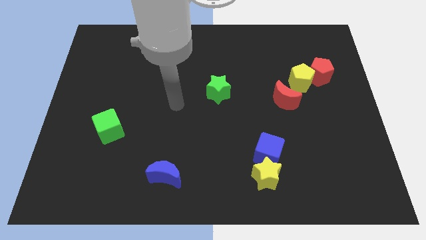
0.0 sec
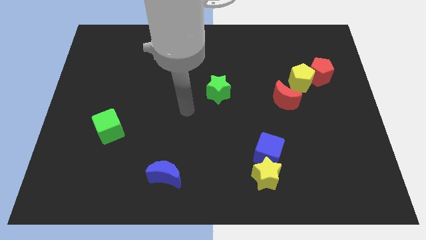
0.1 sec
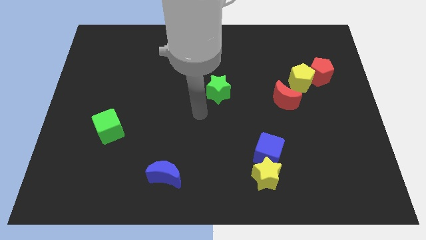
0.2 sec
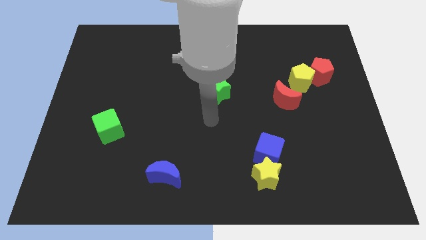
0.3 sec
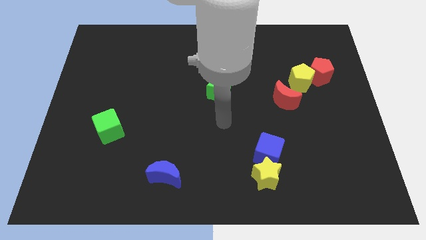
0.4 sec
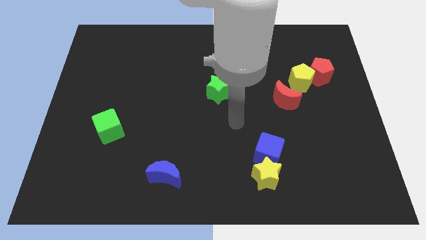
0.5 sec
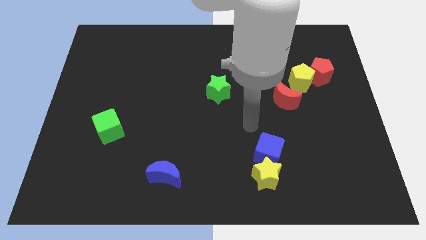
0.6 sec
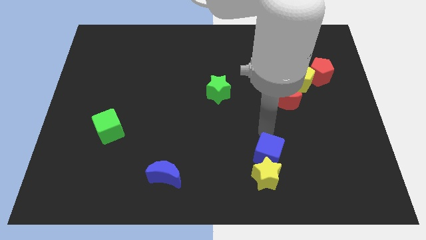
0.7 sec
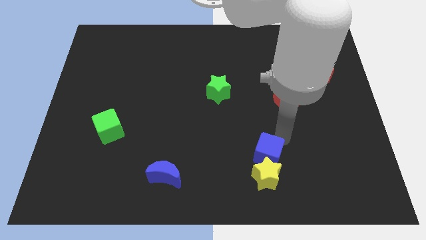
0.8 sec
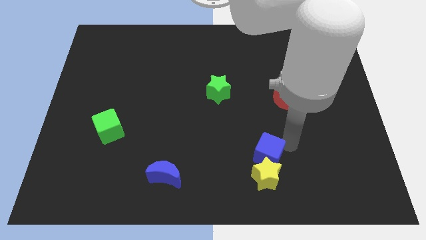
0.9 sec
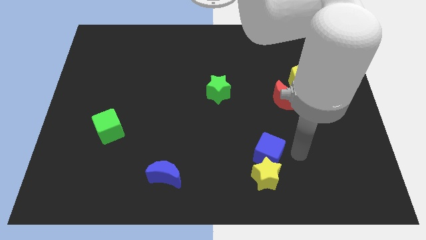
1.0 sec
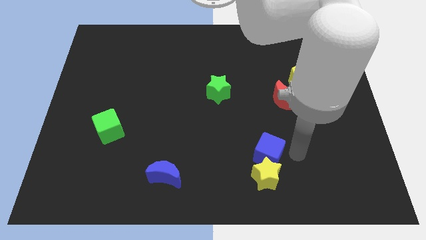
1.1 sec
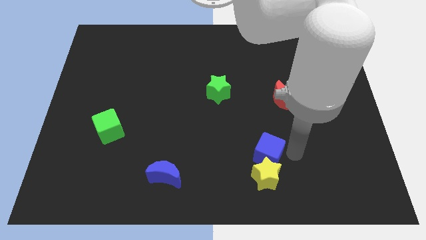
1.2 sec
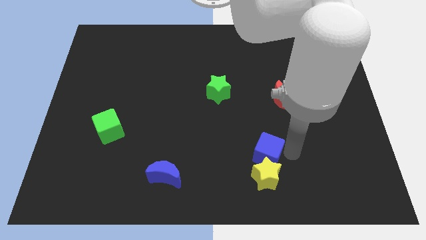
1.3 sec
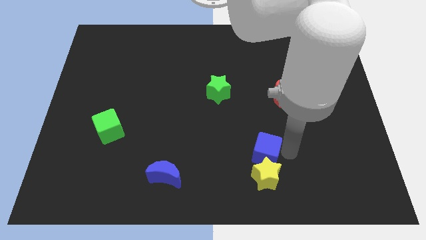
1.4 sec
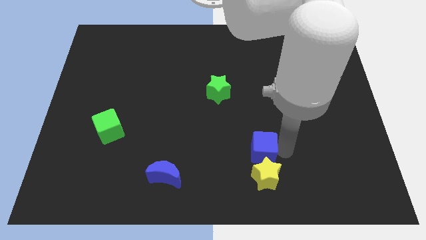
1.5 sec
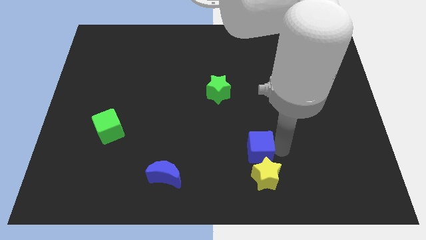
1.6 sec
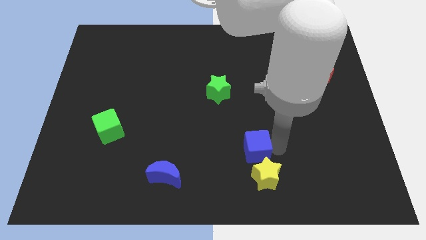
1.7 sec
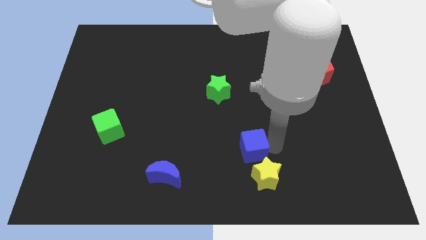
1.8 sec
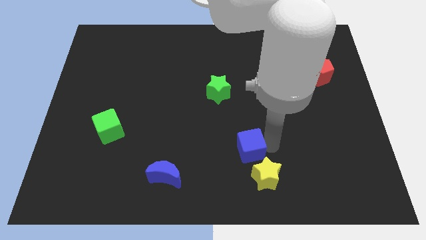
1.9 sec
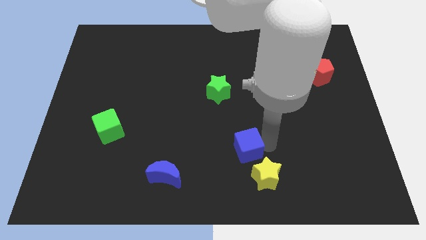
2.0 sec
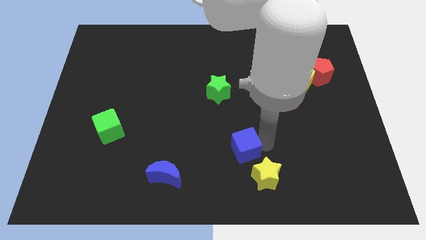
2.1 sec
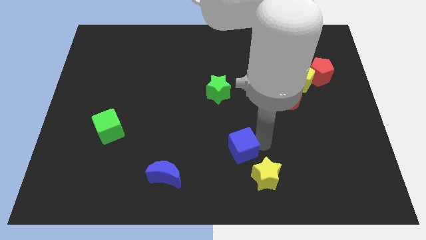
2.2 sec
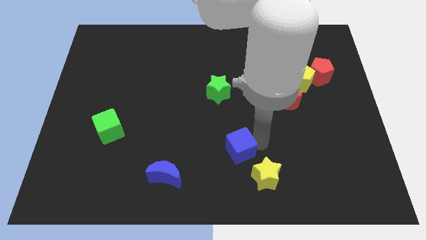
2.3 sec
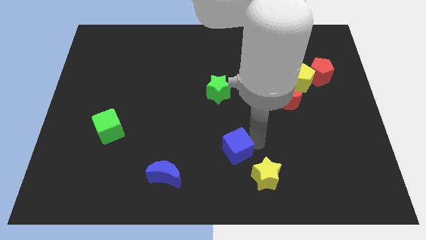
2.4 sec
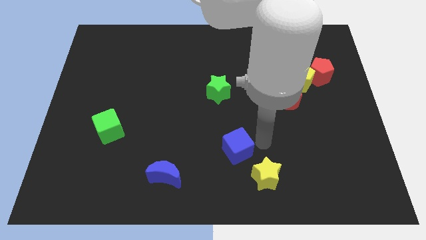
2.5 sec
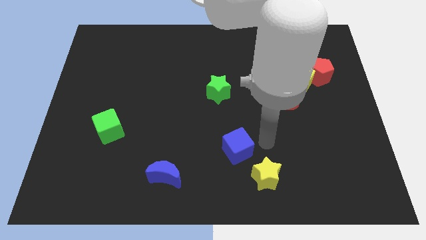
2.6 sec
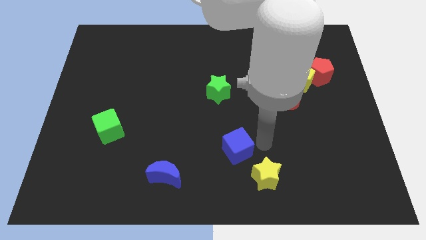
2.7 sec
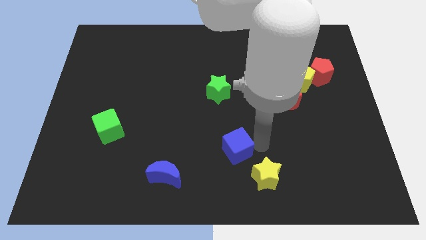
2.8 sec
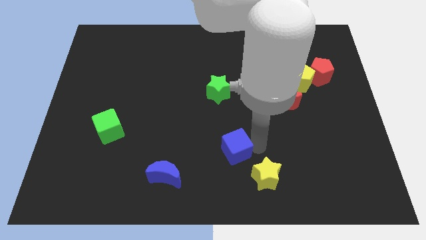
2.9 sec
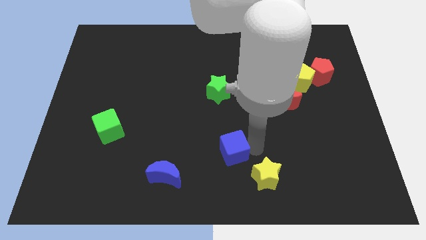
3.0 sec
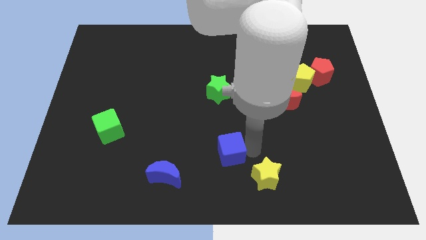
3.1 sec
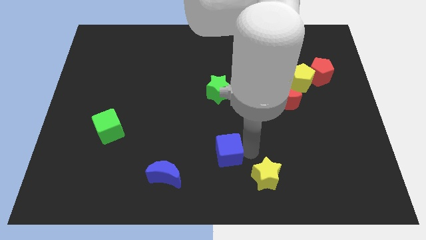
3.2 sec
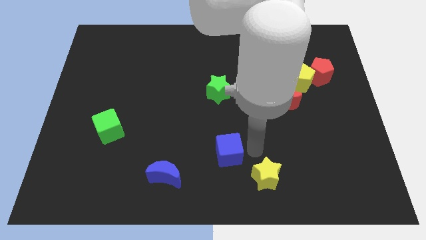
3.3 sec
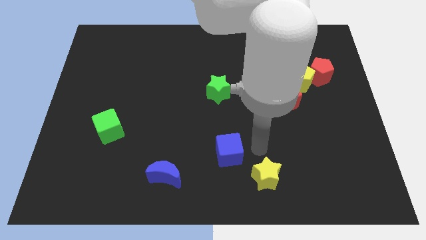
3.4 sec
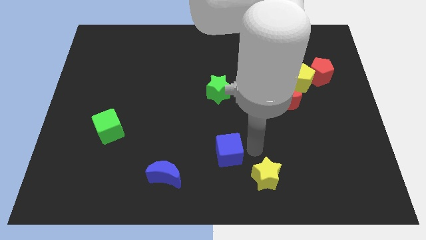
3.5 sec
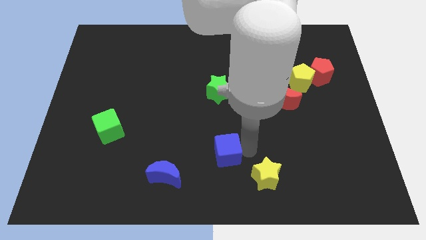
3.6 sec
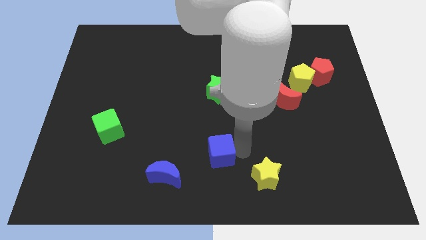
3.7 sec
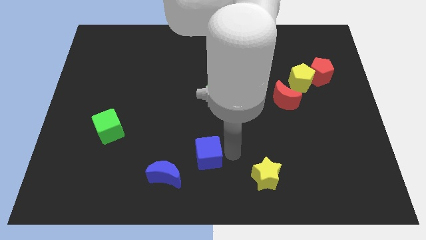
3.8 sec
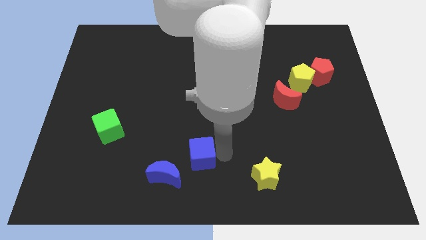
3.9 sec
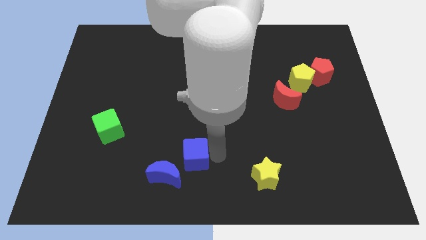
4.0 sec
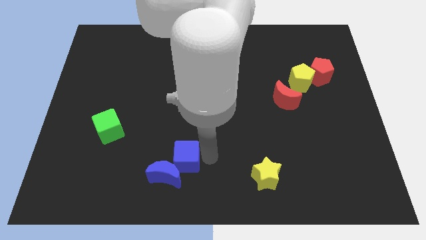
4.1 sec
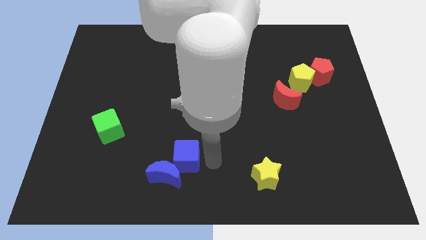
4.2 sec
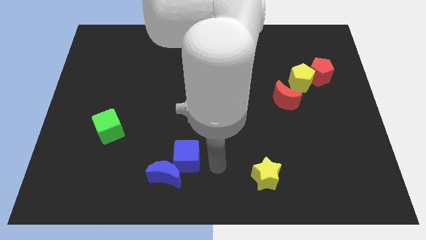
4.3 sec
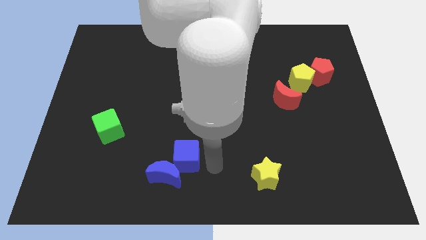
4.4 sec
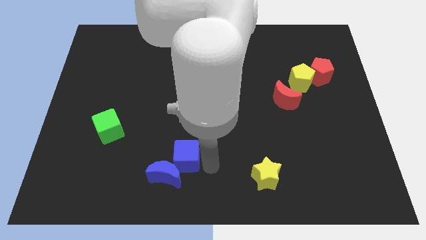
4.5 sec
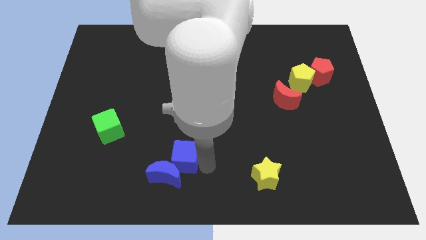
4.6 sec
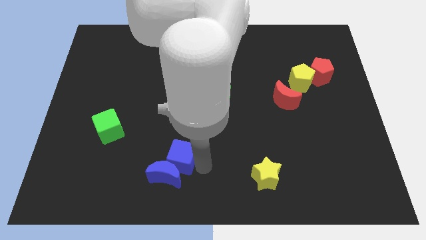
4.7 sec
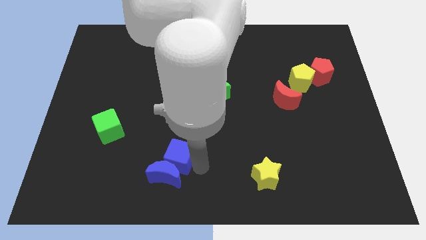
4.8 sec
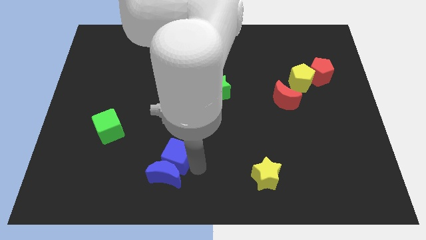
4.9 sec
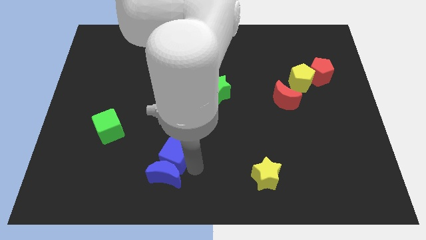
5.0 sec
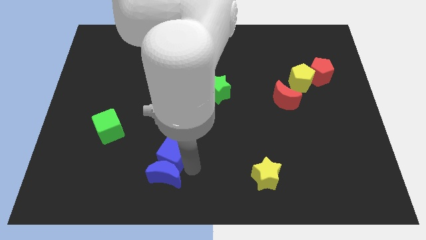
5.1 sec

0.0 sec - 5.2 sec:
move the blue cube left

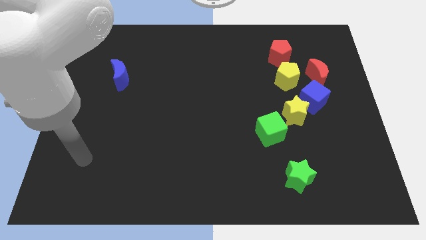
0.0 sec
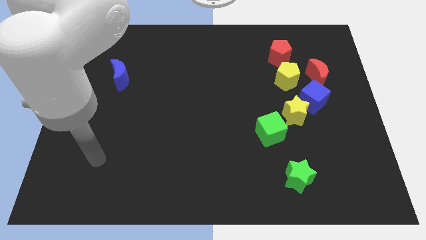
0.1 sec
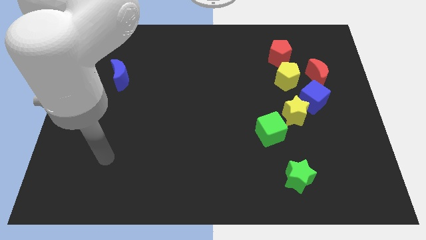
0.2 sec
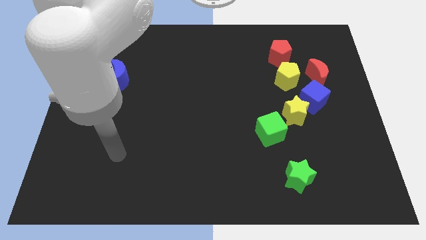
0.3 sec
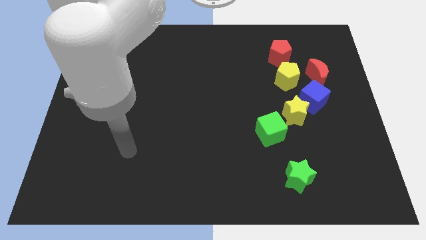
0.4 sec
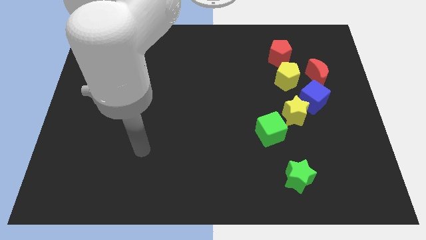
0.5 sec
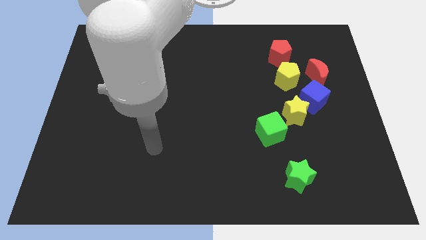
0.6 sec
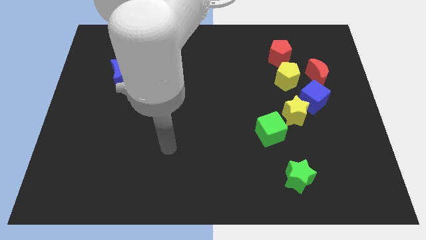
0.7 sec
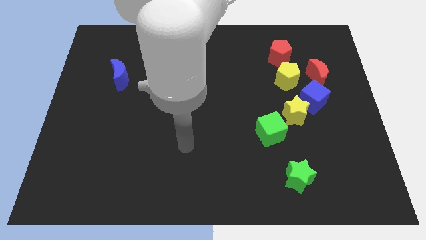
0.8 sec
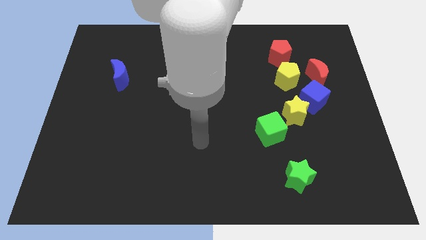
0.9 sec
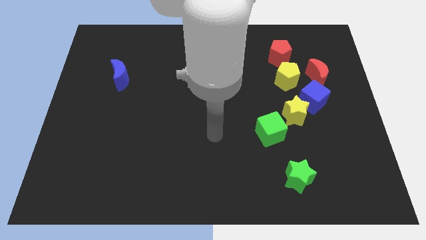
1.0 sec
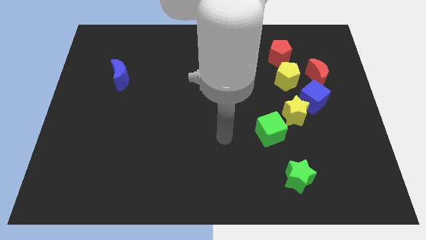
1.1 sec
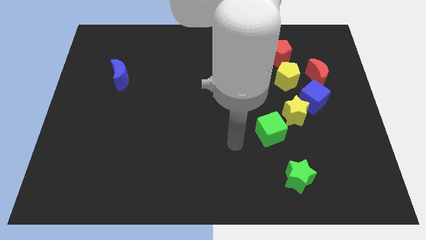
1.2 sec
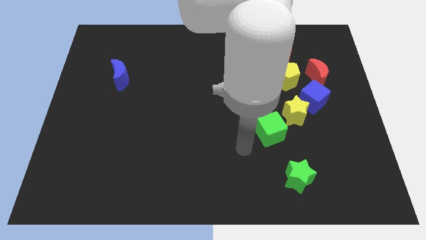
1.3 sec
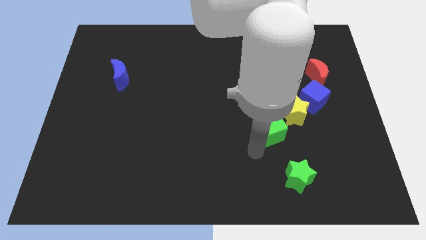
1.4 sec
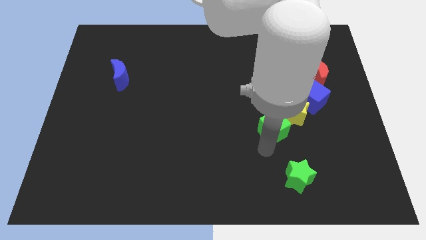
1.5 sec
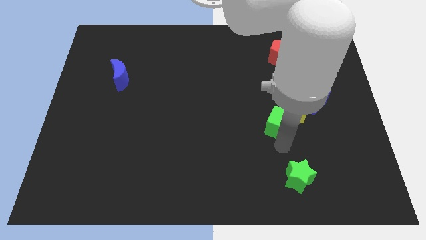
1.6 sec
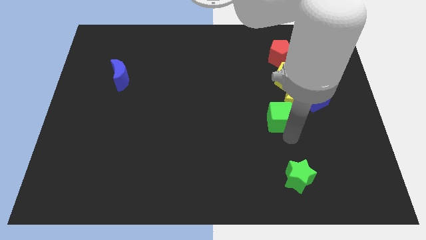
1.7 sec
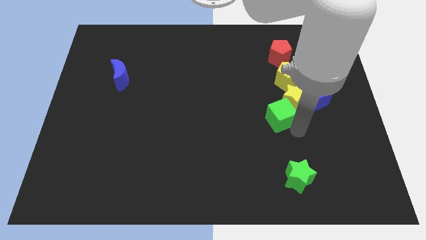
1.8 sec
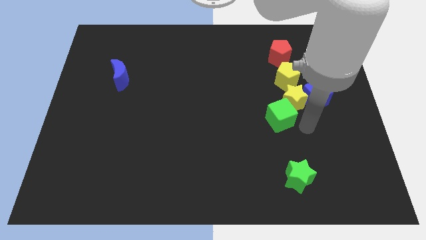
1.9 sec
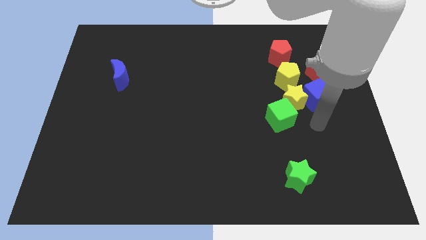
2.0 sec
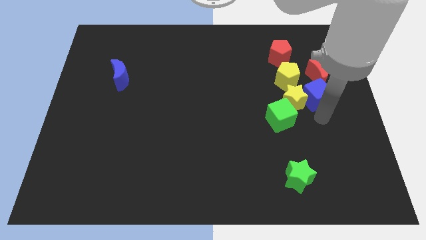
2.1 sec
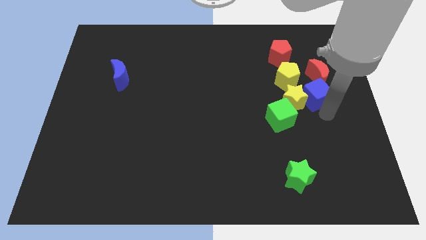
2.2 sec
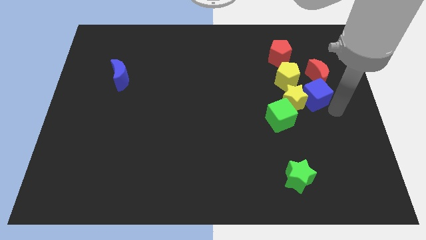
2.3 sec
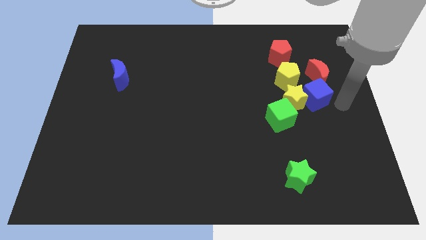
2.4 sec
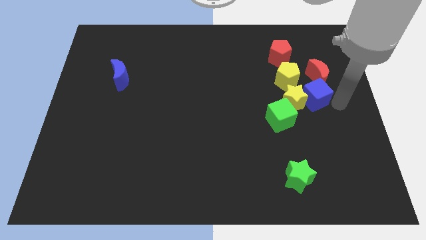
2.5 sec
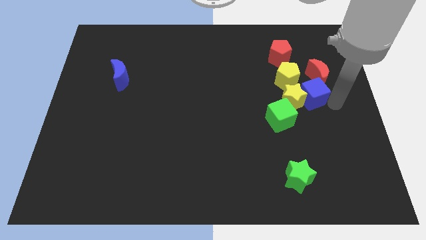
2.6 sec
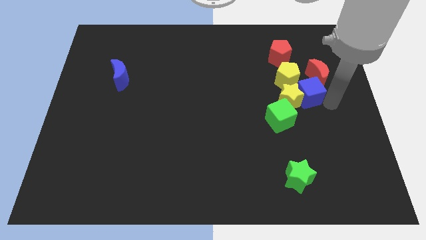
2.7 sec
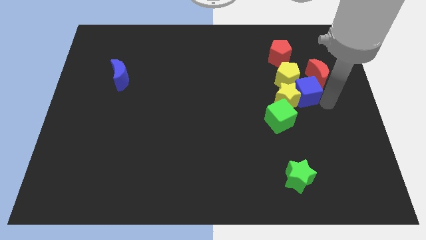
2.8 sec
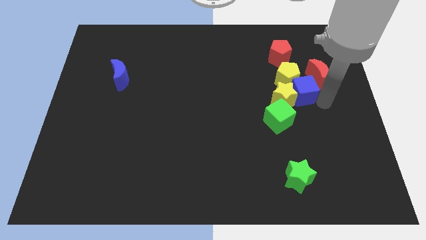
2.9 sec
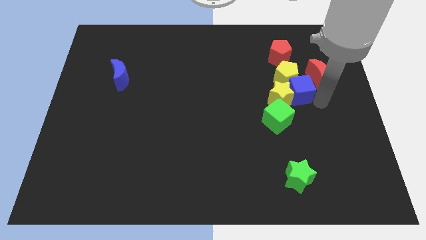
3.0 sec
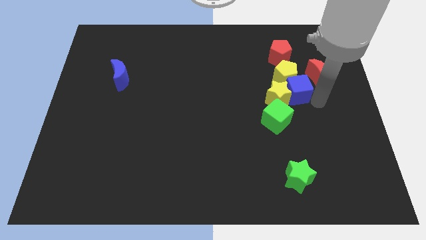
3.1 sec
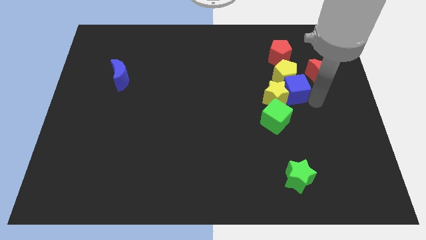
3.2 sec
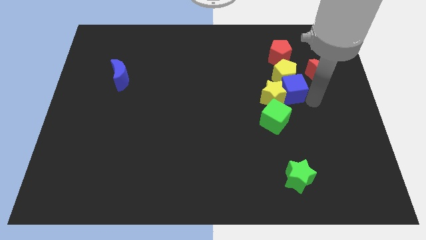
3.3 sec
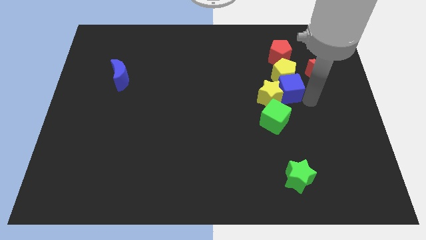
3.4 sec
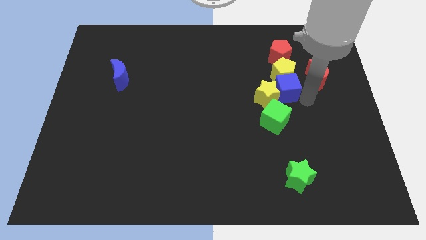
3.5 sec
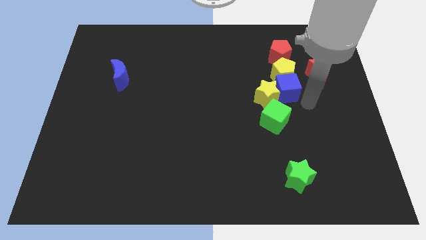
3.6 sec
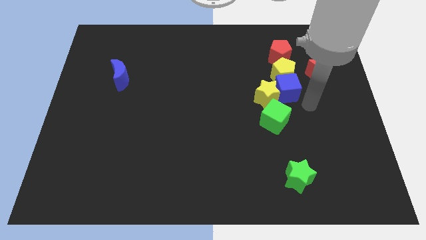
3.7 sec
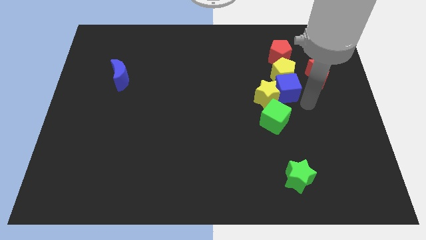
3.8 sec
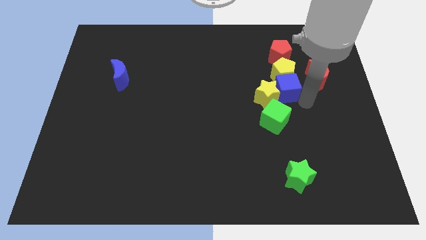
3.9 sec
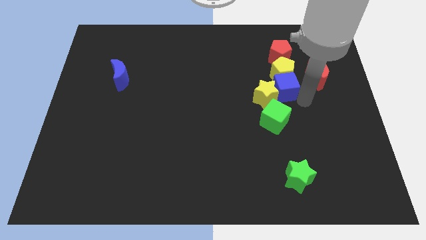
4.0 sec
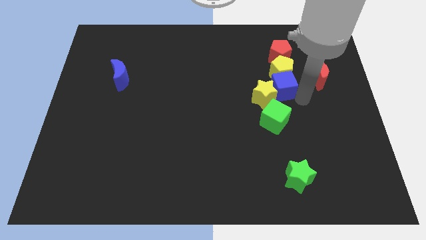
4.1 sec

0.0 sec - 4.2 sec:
slide the blue cube upwards and to the left slightly
